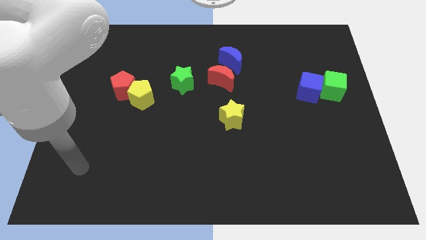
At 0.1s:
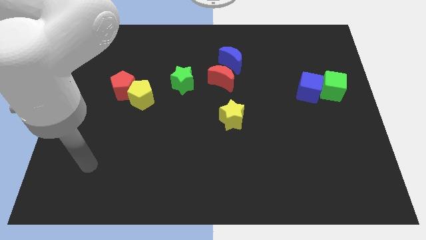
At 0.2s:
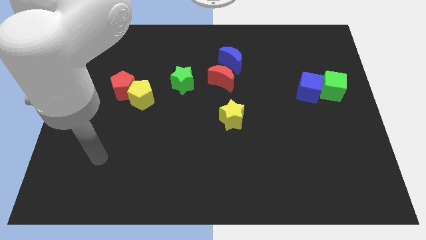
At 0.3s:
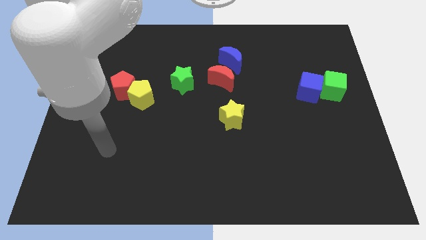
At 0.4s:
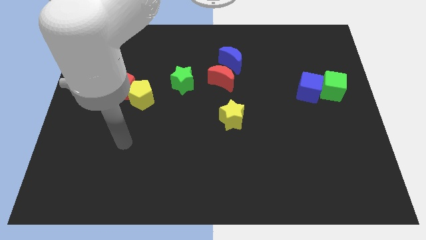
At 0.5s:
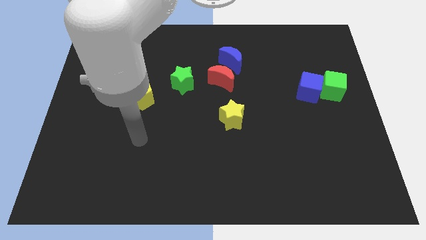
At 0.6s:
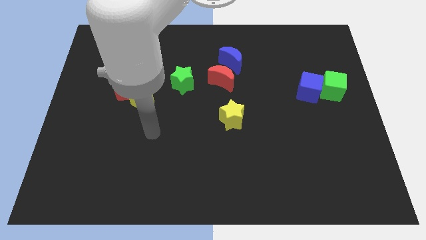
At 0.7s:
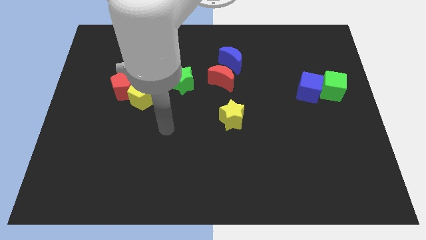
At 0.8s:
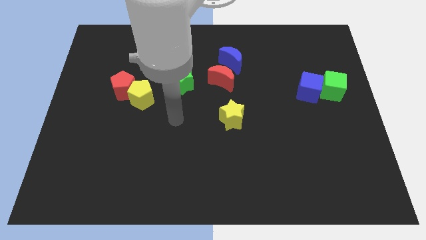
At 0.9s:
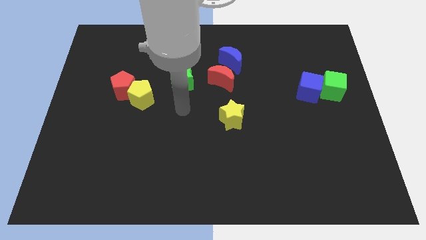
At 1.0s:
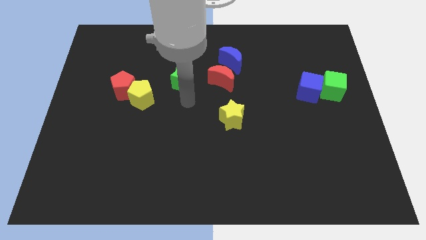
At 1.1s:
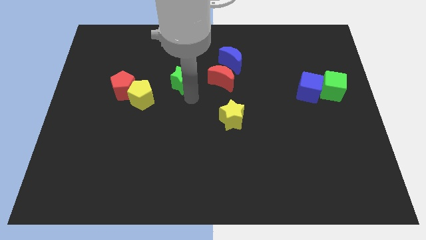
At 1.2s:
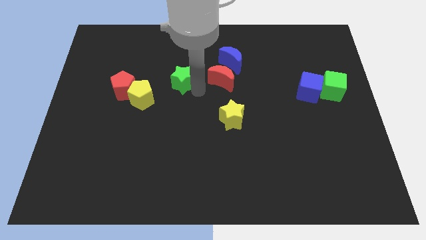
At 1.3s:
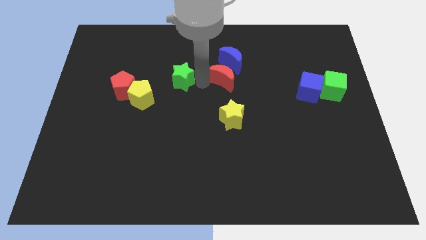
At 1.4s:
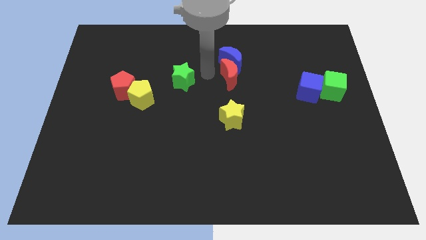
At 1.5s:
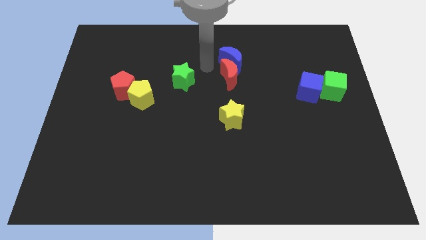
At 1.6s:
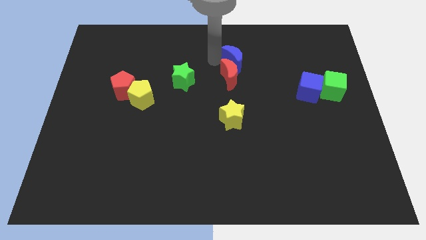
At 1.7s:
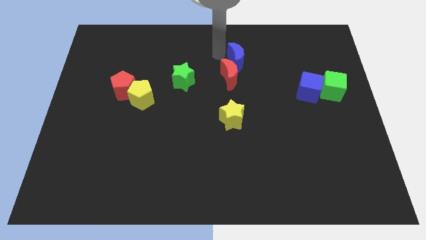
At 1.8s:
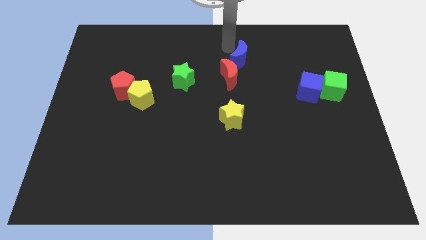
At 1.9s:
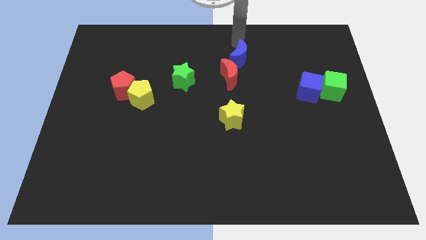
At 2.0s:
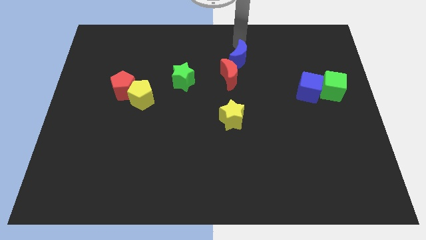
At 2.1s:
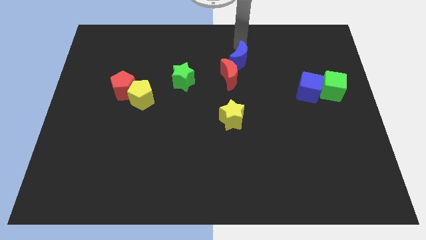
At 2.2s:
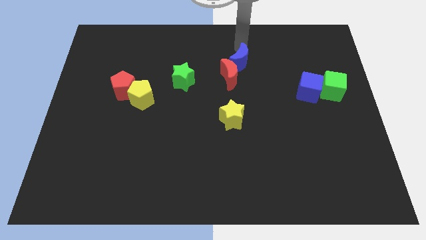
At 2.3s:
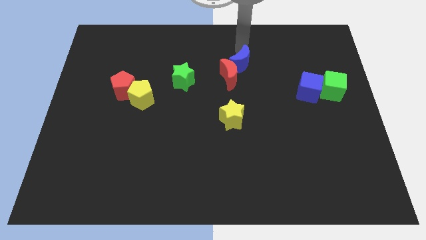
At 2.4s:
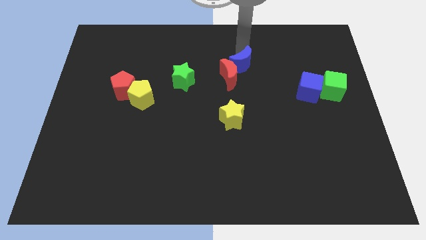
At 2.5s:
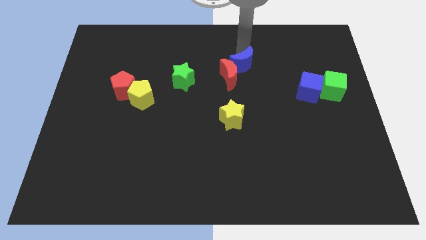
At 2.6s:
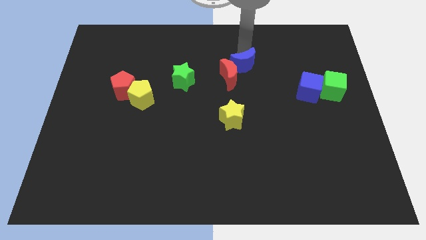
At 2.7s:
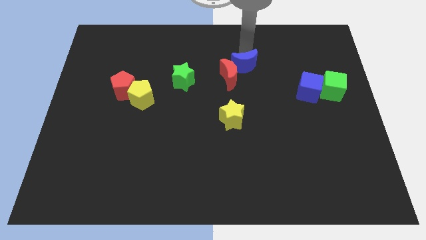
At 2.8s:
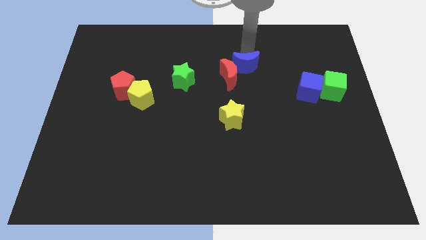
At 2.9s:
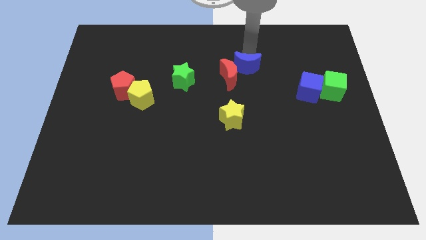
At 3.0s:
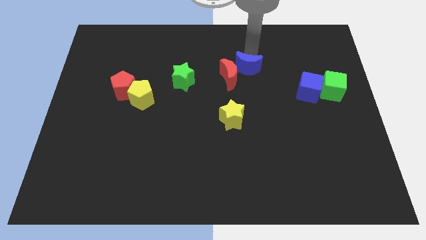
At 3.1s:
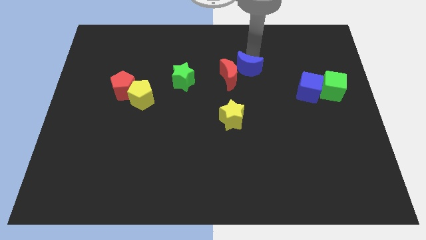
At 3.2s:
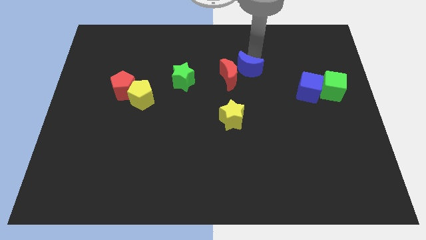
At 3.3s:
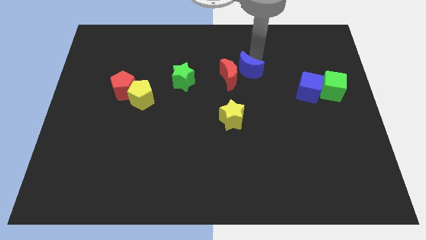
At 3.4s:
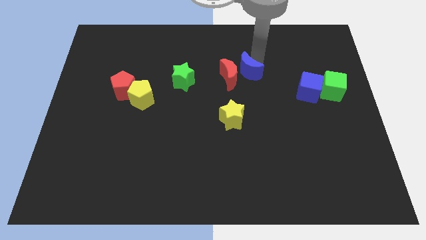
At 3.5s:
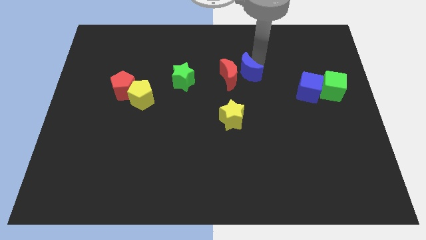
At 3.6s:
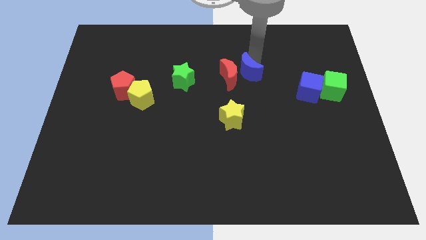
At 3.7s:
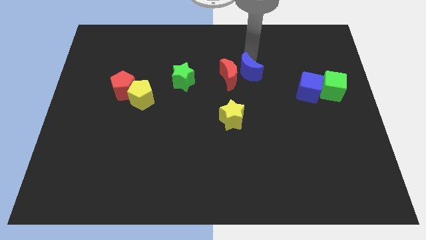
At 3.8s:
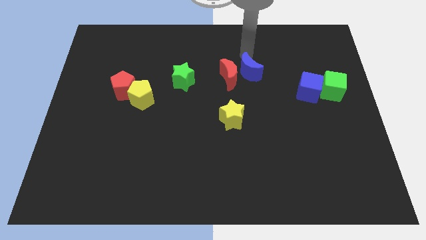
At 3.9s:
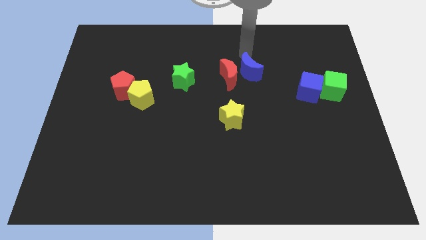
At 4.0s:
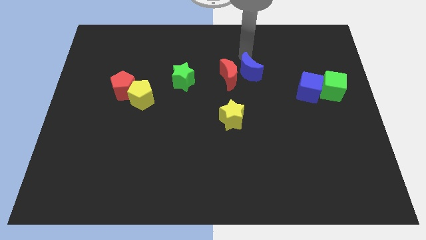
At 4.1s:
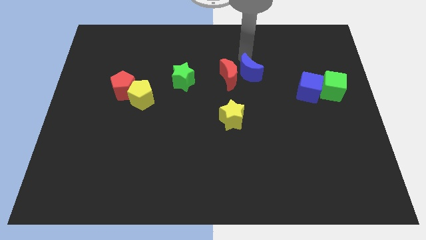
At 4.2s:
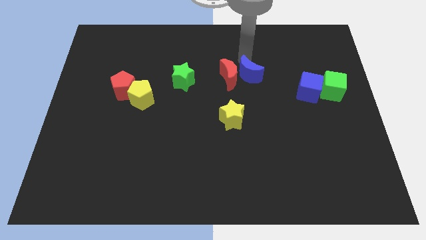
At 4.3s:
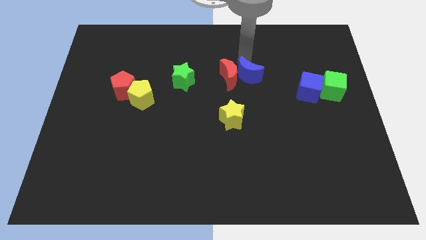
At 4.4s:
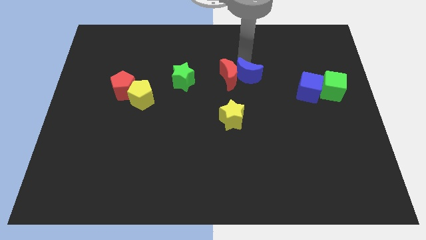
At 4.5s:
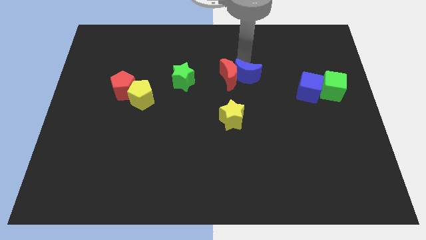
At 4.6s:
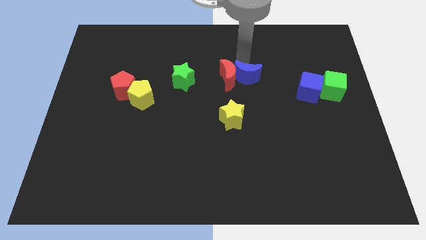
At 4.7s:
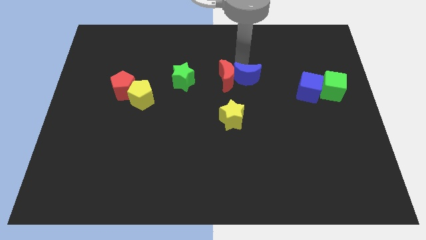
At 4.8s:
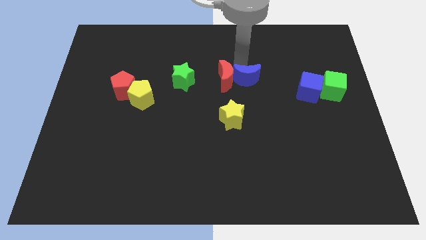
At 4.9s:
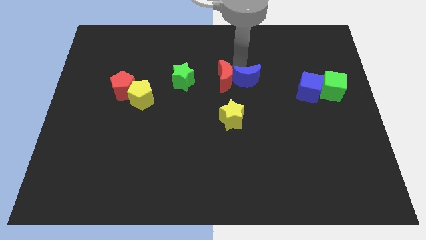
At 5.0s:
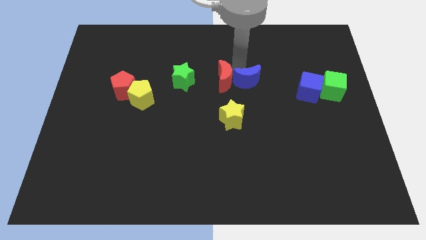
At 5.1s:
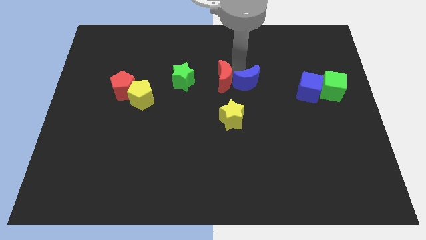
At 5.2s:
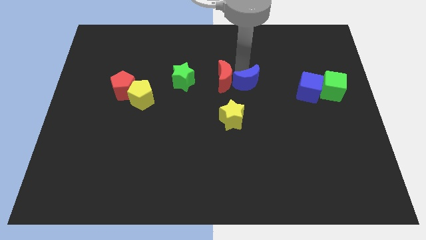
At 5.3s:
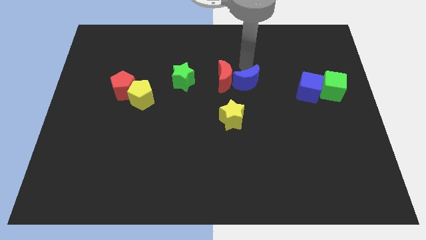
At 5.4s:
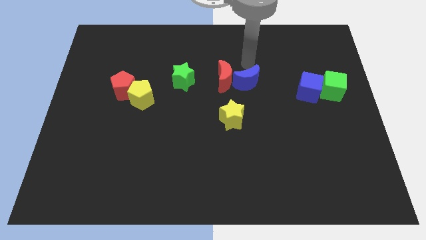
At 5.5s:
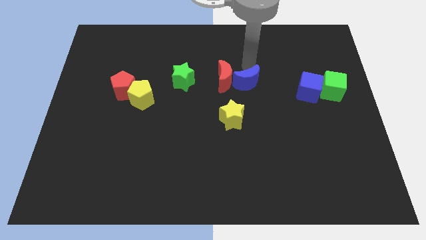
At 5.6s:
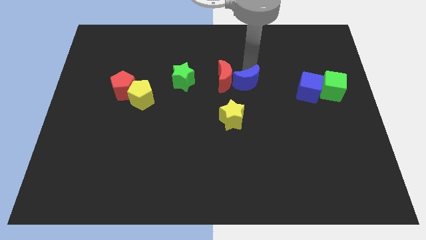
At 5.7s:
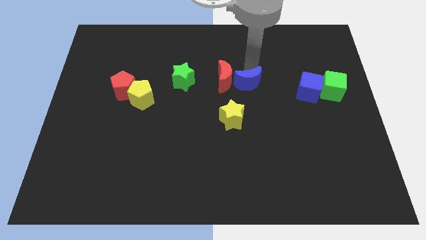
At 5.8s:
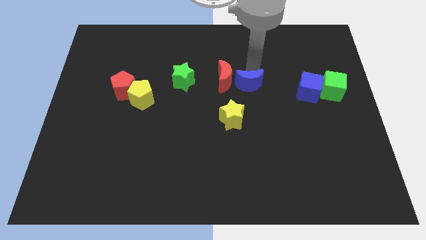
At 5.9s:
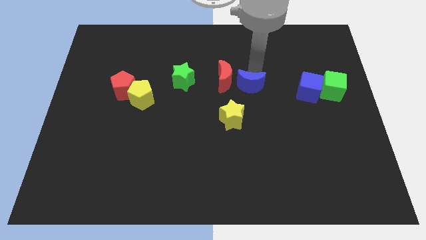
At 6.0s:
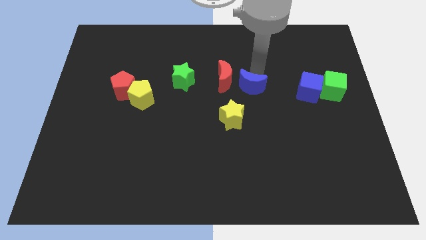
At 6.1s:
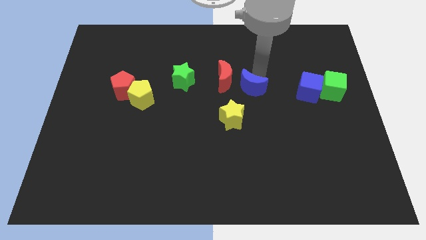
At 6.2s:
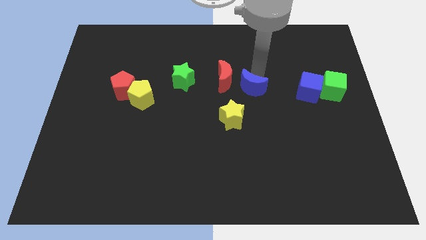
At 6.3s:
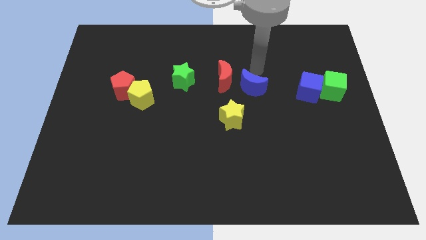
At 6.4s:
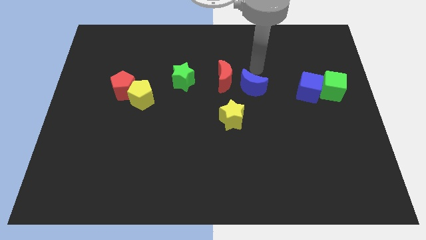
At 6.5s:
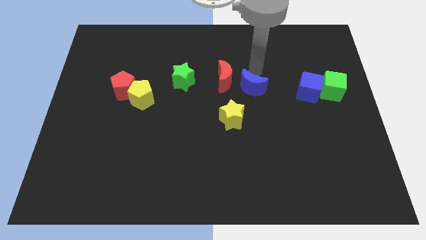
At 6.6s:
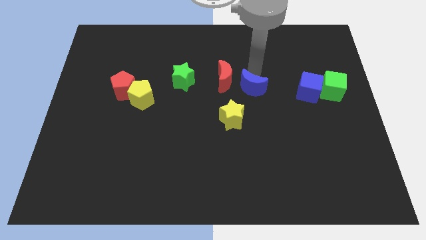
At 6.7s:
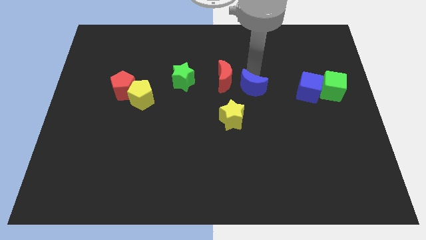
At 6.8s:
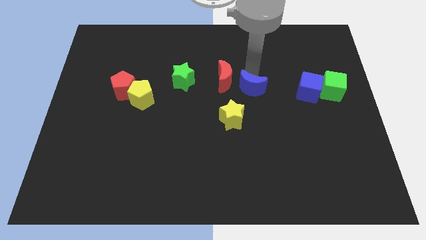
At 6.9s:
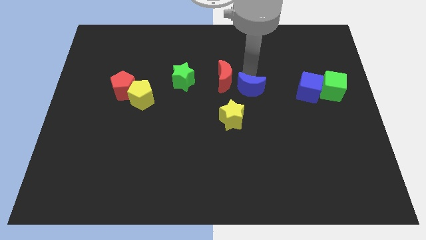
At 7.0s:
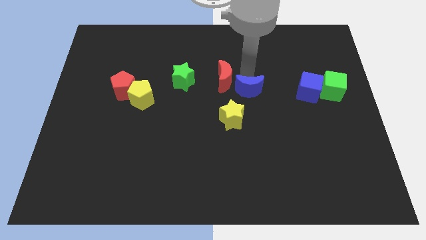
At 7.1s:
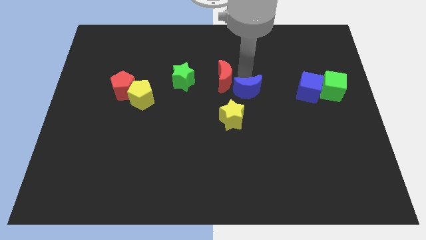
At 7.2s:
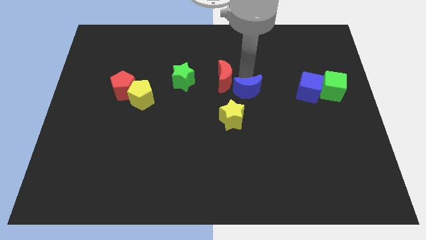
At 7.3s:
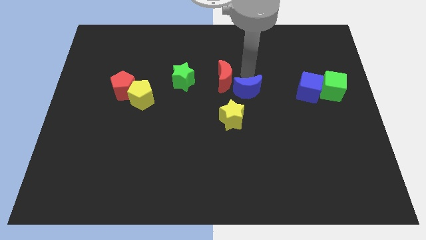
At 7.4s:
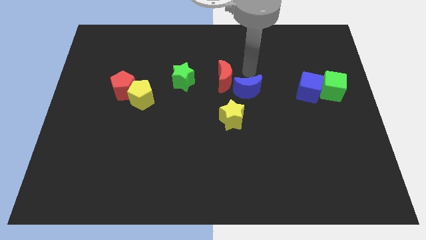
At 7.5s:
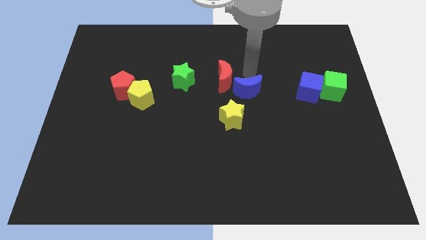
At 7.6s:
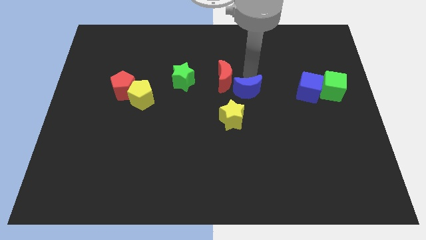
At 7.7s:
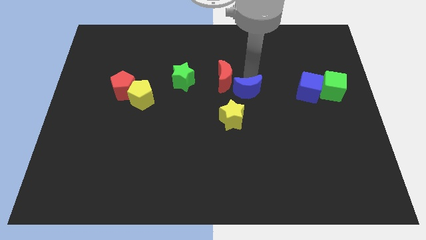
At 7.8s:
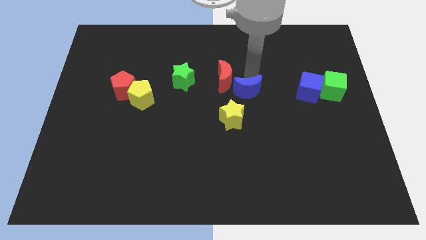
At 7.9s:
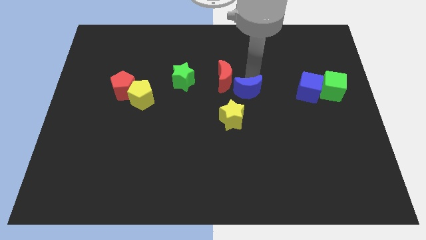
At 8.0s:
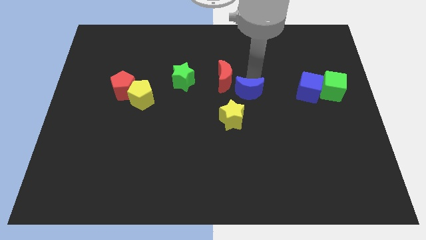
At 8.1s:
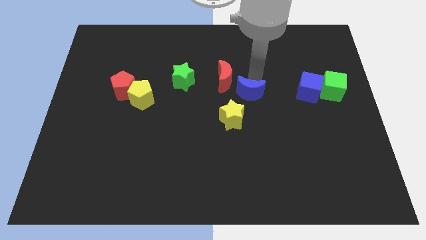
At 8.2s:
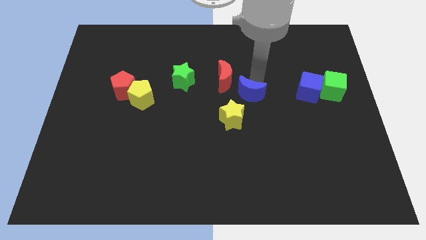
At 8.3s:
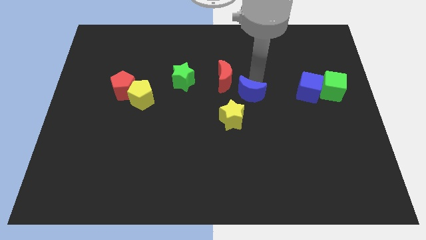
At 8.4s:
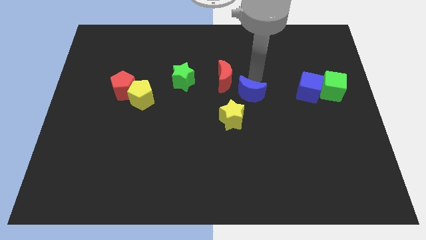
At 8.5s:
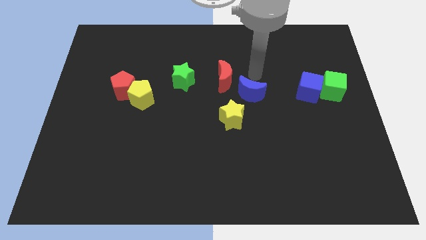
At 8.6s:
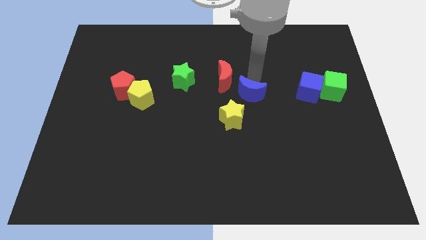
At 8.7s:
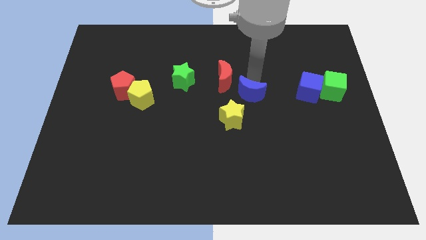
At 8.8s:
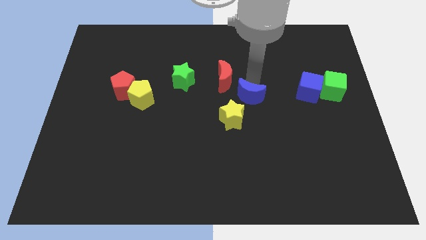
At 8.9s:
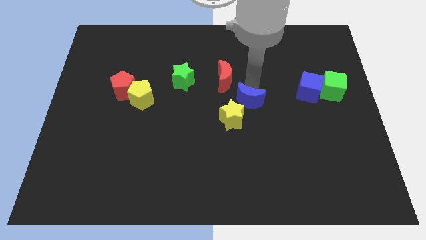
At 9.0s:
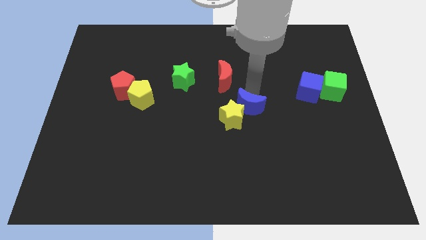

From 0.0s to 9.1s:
push the blue moon close to the yellow star
